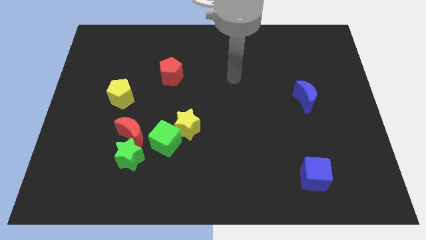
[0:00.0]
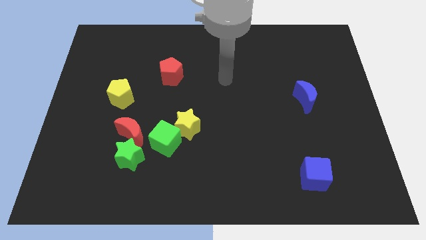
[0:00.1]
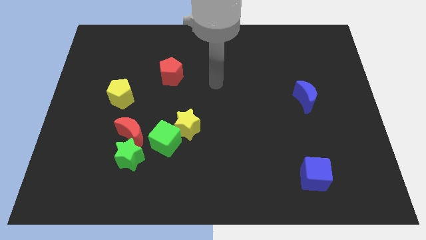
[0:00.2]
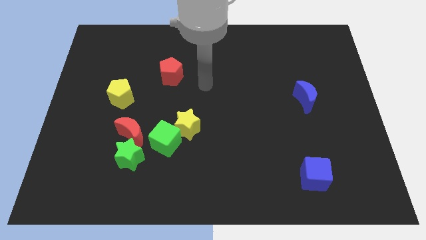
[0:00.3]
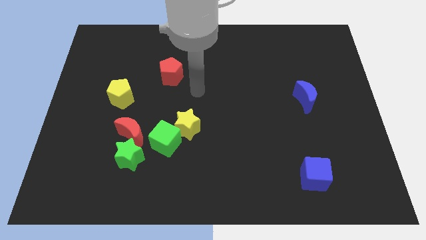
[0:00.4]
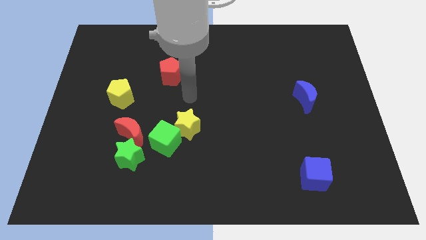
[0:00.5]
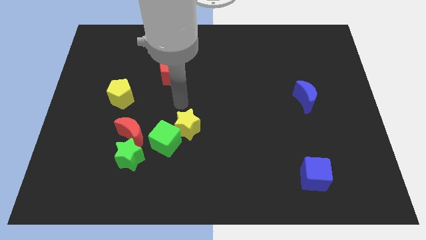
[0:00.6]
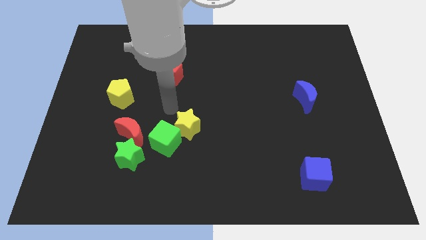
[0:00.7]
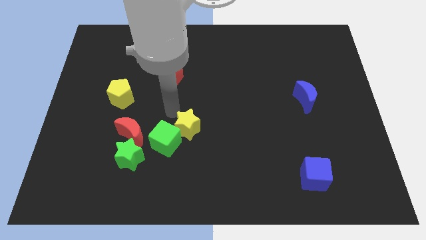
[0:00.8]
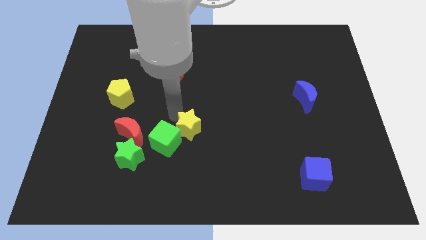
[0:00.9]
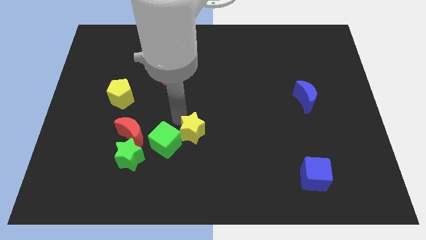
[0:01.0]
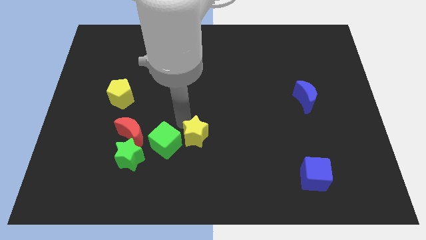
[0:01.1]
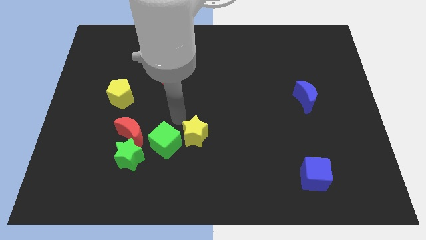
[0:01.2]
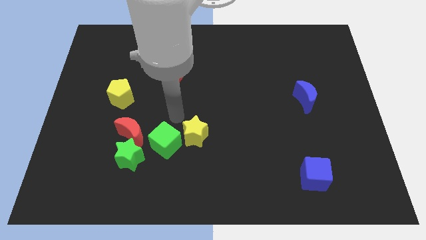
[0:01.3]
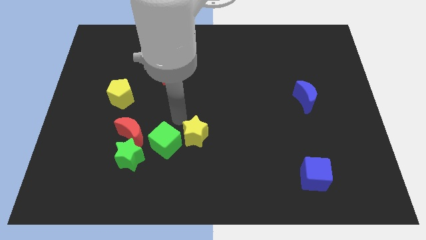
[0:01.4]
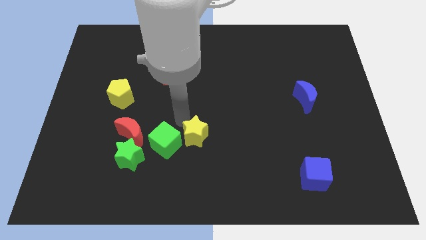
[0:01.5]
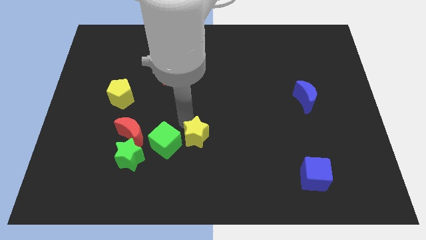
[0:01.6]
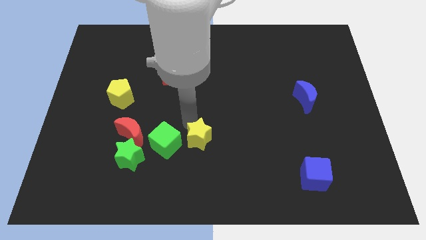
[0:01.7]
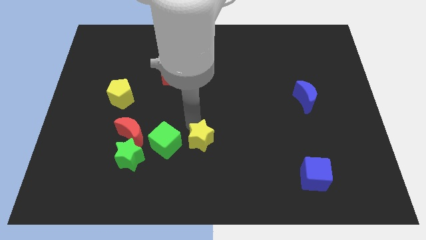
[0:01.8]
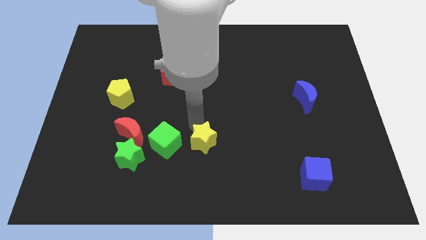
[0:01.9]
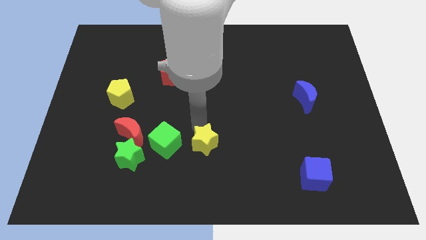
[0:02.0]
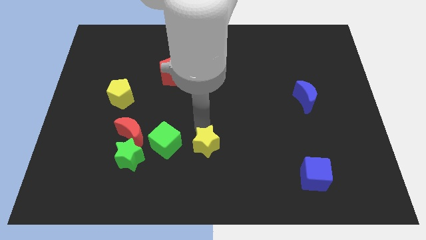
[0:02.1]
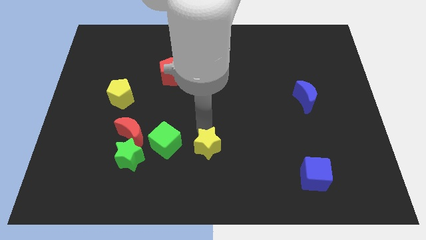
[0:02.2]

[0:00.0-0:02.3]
slightly push the yellow star downwards and then right

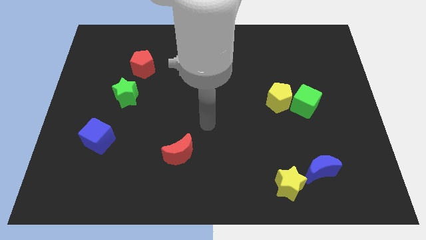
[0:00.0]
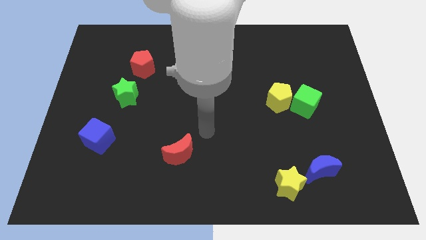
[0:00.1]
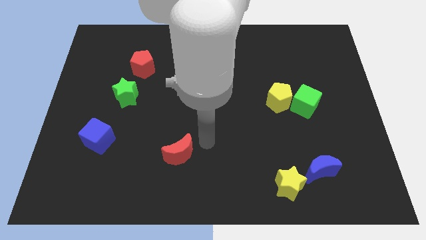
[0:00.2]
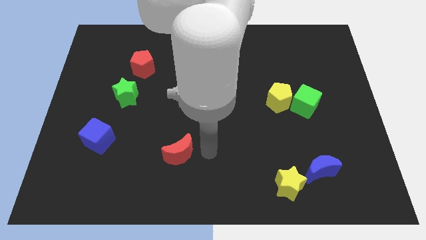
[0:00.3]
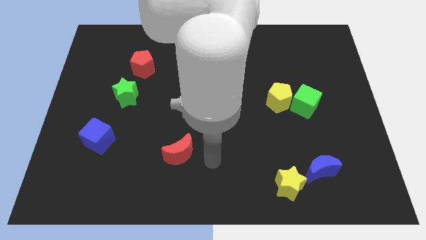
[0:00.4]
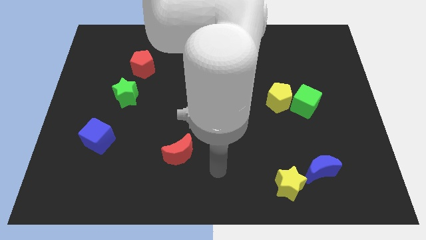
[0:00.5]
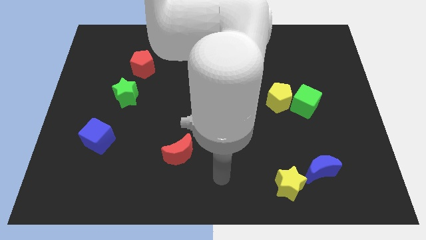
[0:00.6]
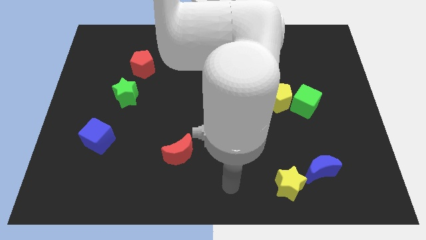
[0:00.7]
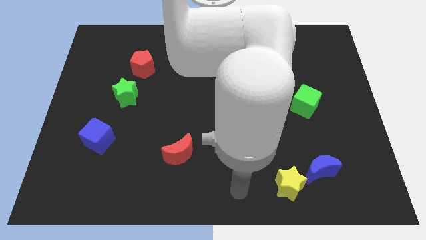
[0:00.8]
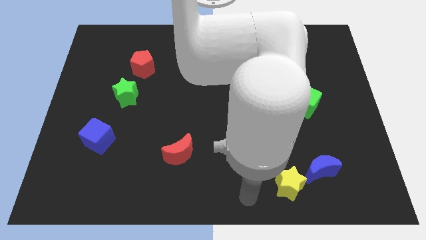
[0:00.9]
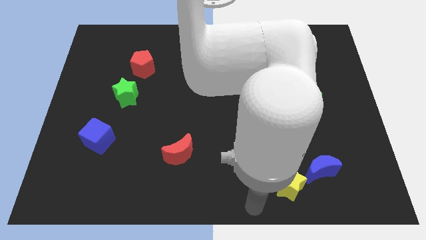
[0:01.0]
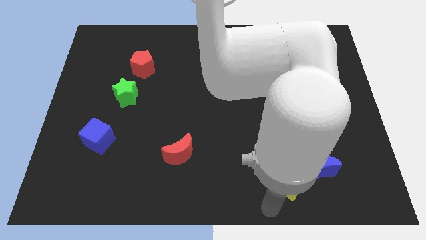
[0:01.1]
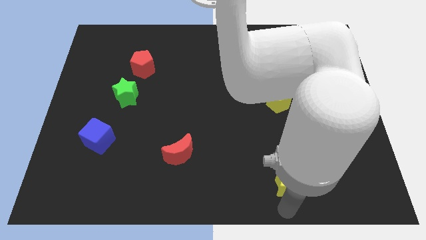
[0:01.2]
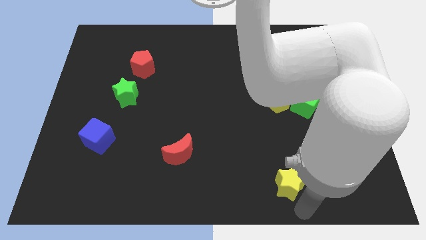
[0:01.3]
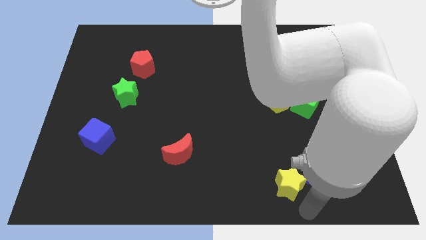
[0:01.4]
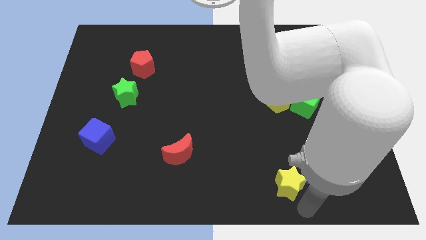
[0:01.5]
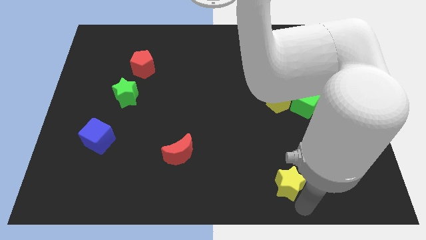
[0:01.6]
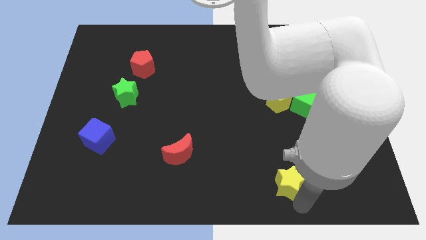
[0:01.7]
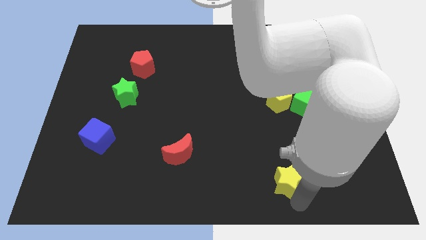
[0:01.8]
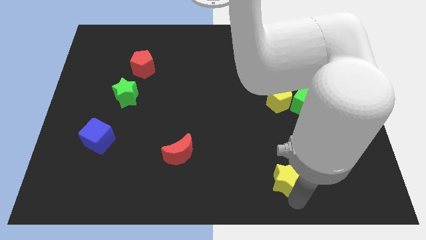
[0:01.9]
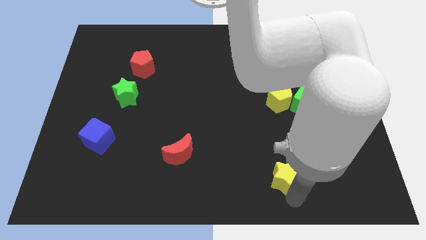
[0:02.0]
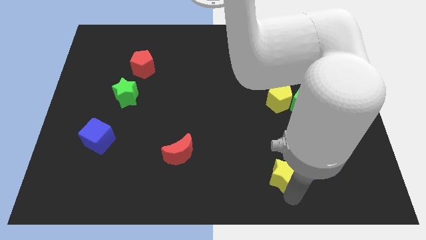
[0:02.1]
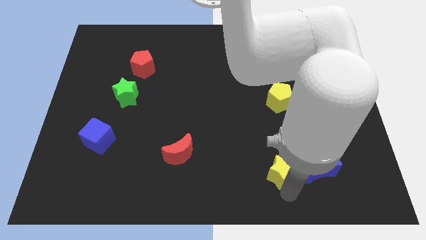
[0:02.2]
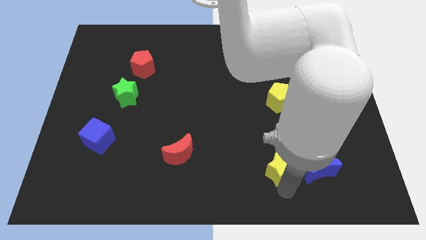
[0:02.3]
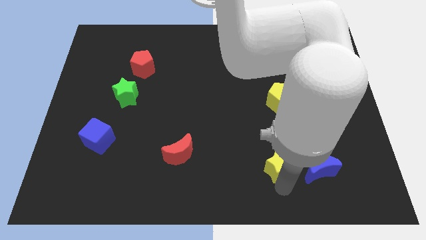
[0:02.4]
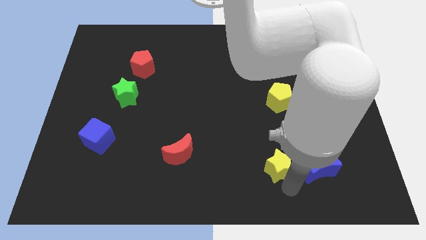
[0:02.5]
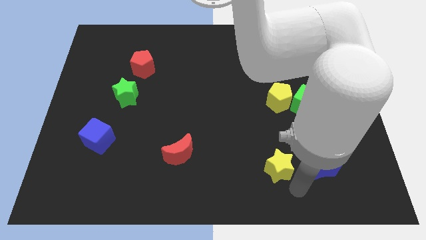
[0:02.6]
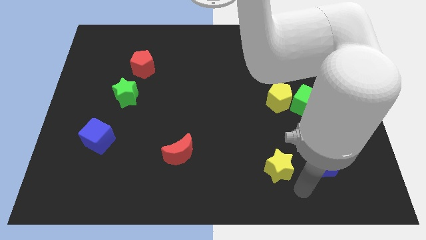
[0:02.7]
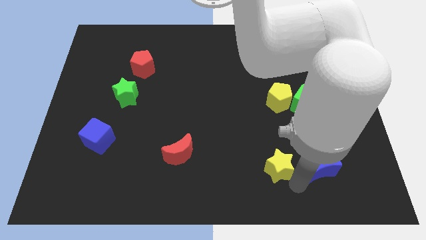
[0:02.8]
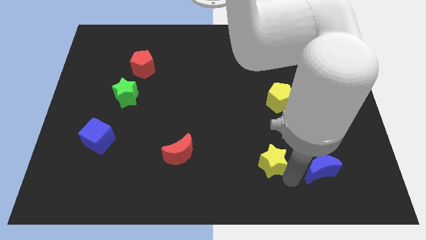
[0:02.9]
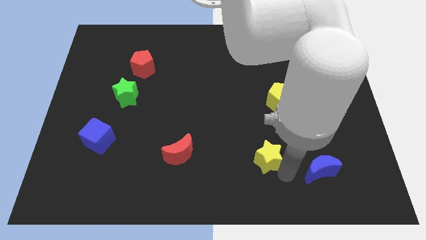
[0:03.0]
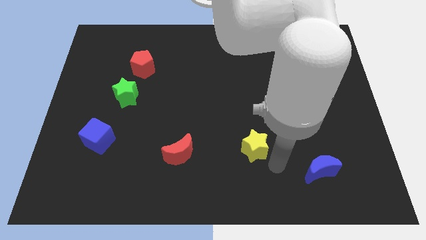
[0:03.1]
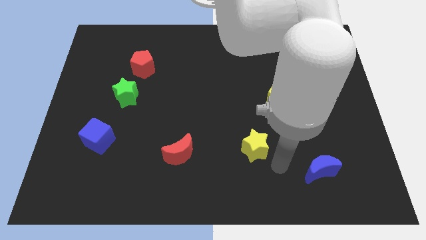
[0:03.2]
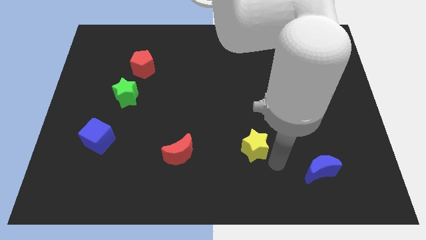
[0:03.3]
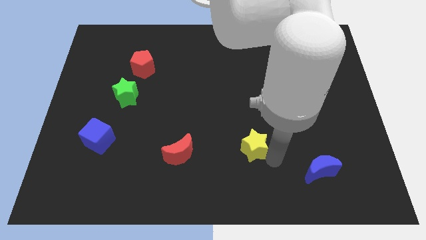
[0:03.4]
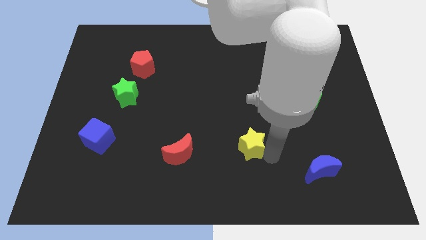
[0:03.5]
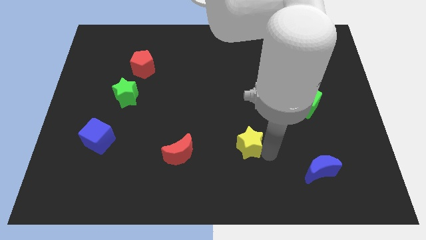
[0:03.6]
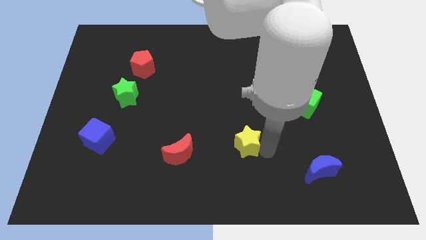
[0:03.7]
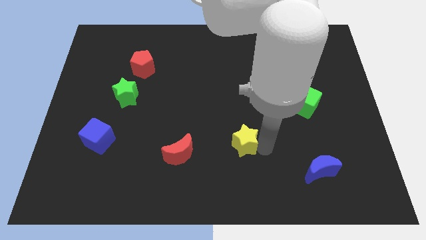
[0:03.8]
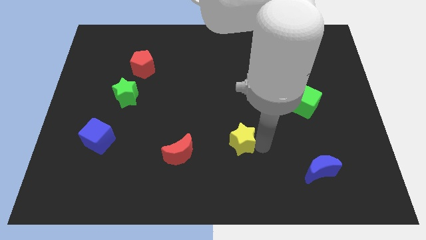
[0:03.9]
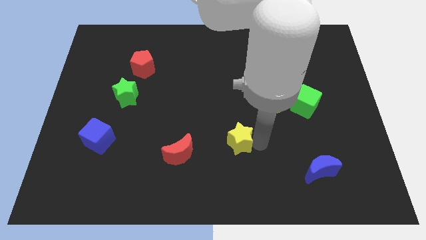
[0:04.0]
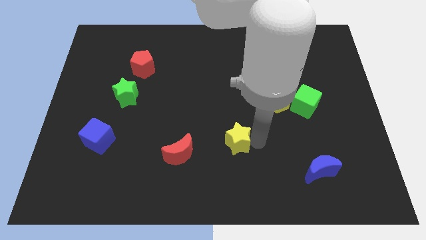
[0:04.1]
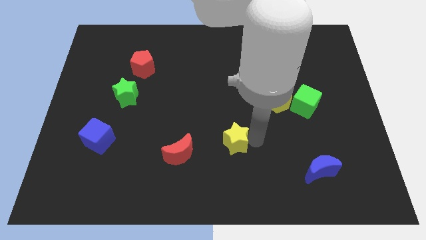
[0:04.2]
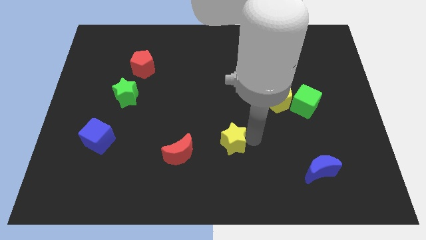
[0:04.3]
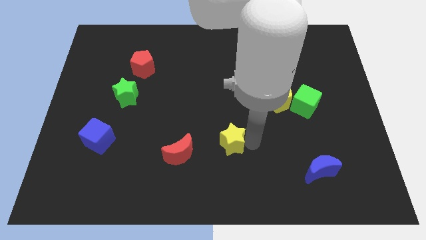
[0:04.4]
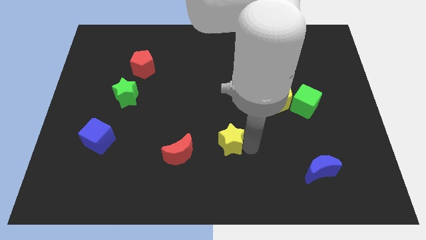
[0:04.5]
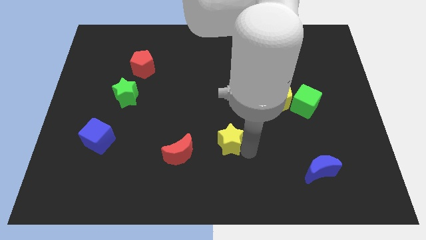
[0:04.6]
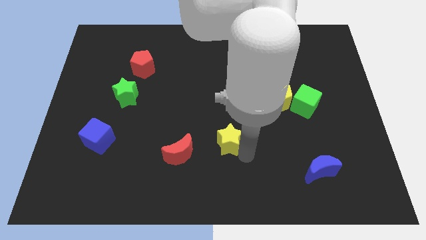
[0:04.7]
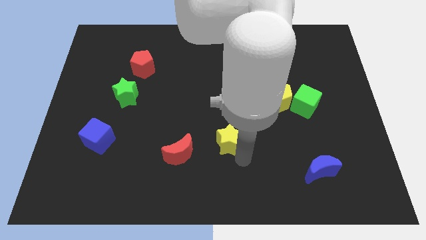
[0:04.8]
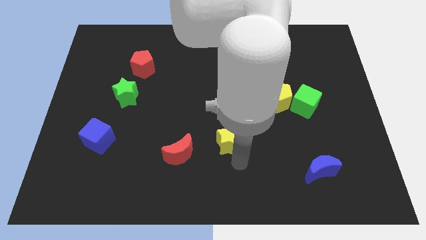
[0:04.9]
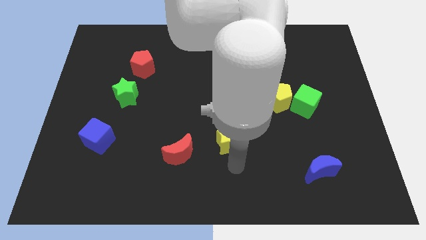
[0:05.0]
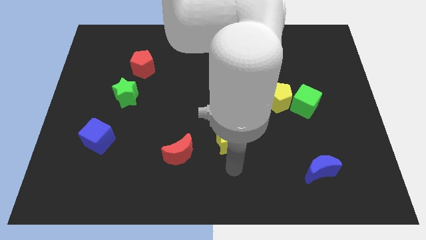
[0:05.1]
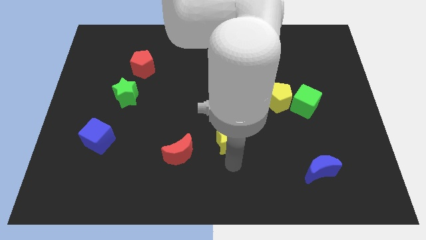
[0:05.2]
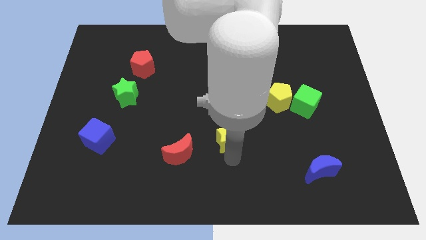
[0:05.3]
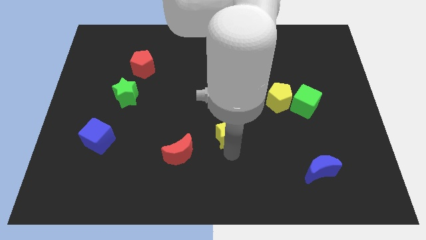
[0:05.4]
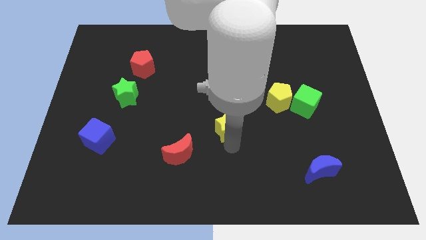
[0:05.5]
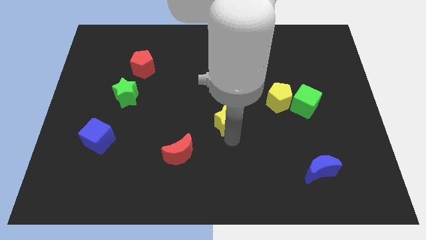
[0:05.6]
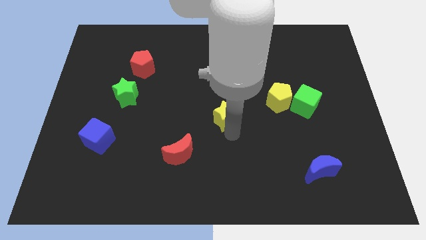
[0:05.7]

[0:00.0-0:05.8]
push the yellow star upwards and then to the left
